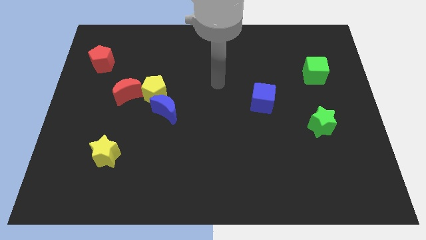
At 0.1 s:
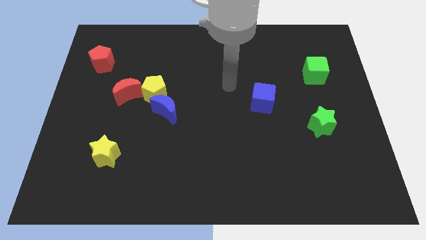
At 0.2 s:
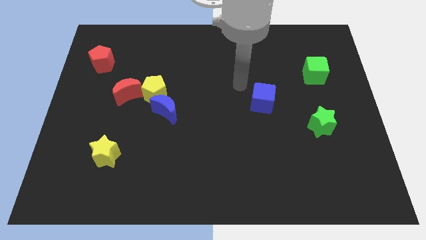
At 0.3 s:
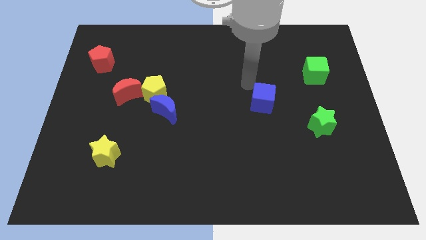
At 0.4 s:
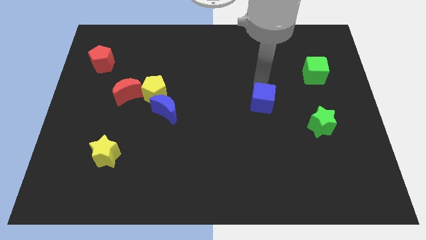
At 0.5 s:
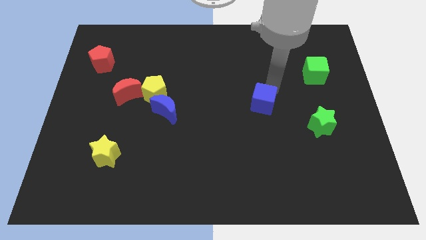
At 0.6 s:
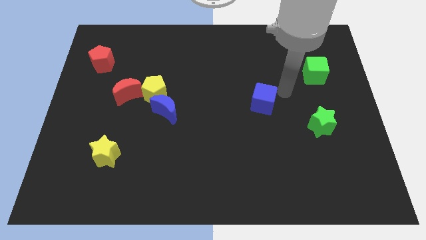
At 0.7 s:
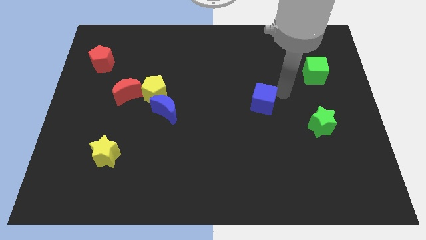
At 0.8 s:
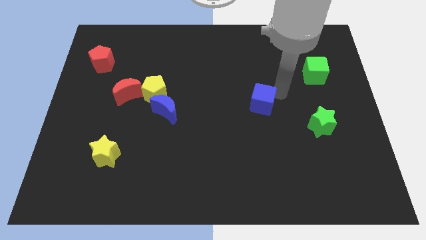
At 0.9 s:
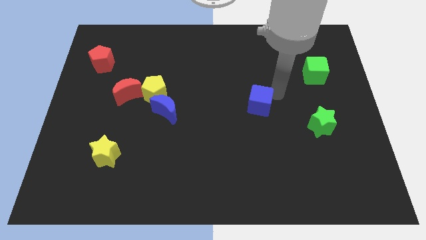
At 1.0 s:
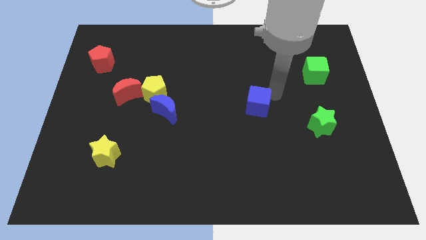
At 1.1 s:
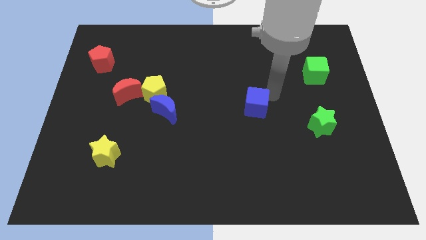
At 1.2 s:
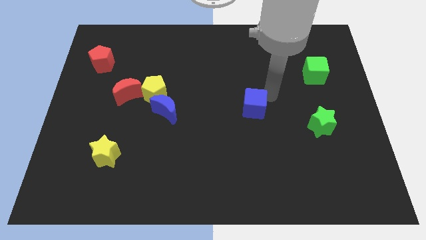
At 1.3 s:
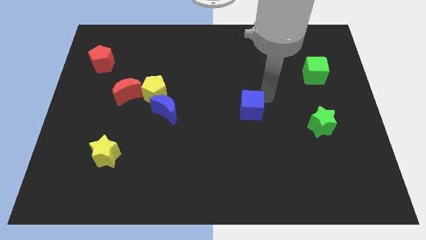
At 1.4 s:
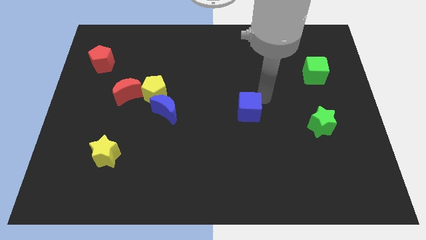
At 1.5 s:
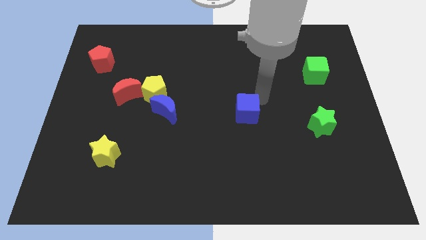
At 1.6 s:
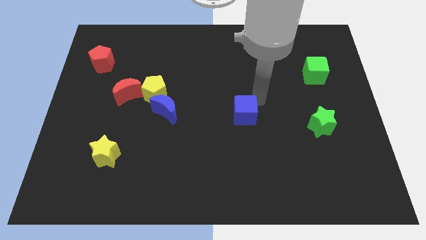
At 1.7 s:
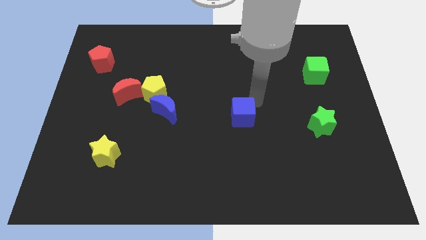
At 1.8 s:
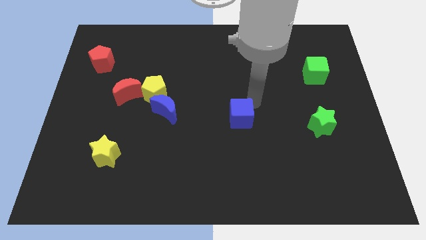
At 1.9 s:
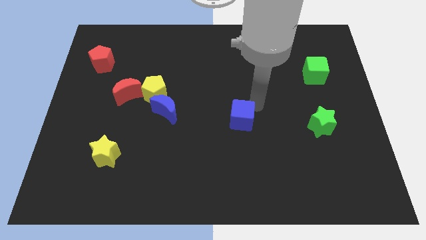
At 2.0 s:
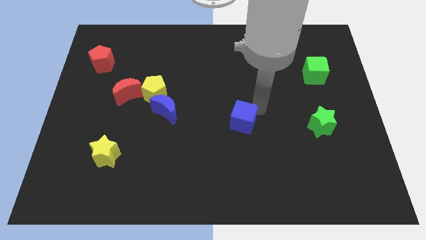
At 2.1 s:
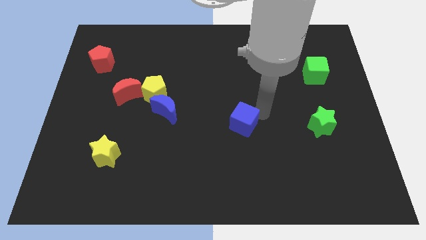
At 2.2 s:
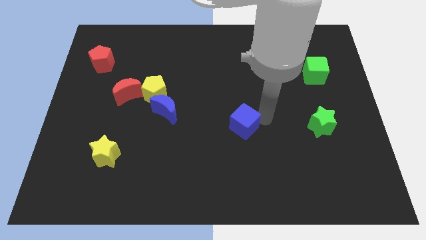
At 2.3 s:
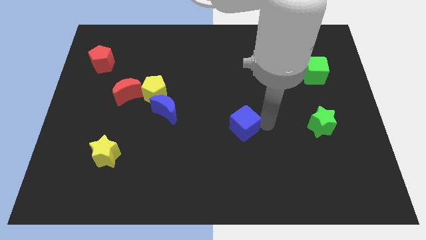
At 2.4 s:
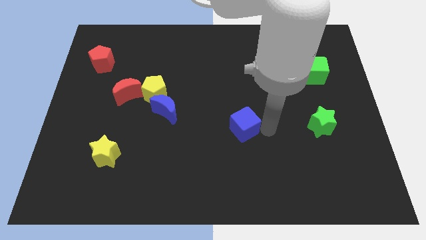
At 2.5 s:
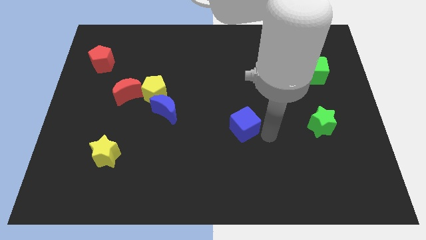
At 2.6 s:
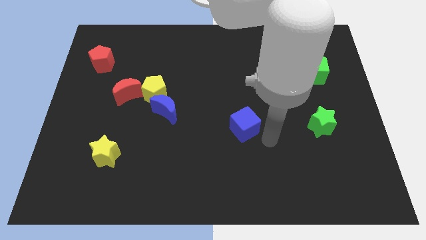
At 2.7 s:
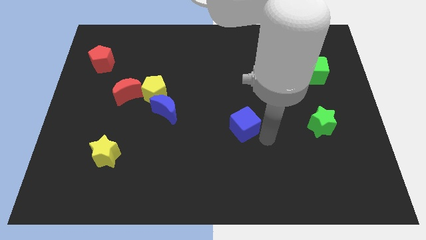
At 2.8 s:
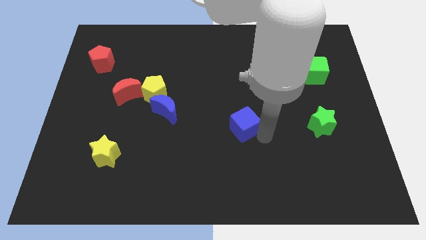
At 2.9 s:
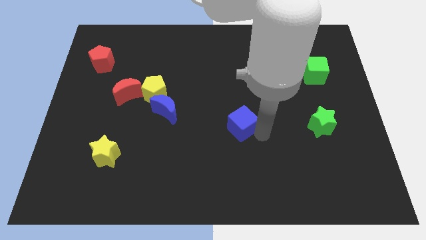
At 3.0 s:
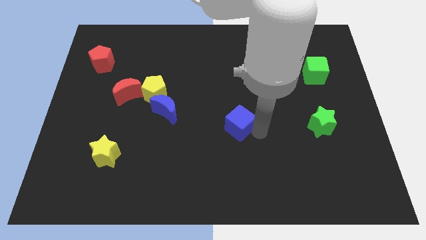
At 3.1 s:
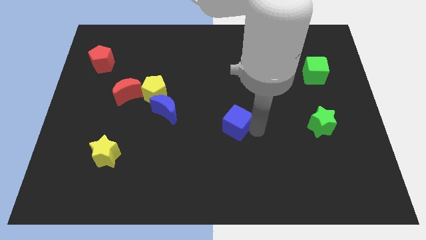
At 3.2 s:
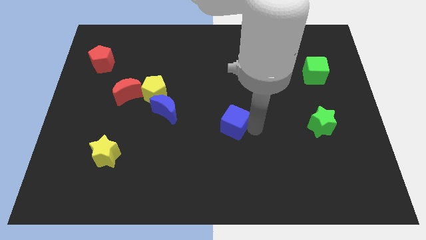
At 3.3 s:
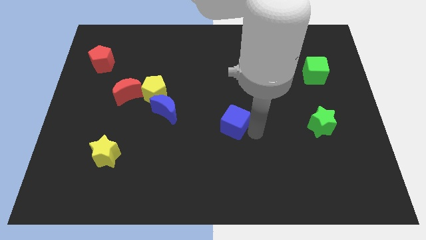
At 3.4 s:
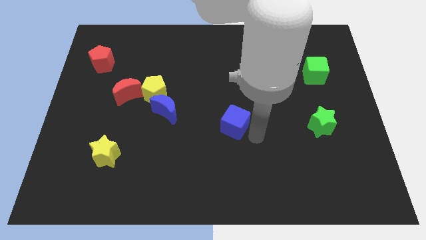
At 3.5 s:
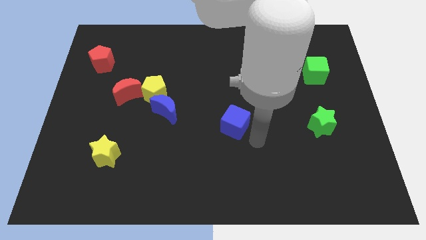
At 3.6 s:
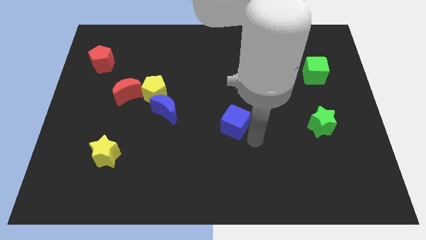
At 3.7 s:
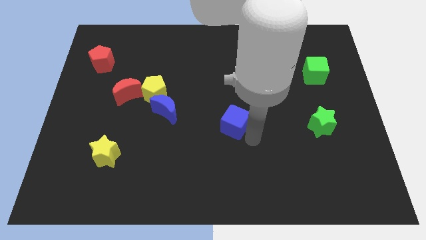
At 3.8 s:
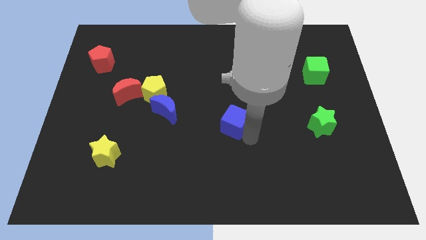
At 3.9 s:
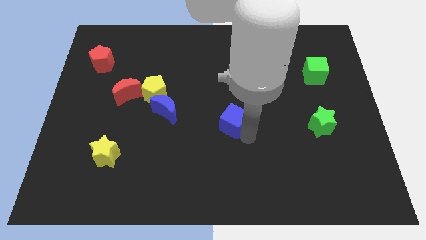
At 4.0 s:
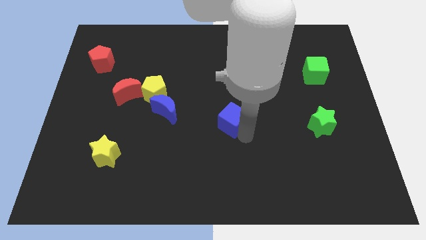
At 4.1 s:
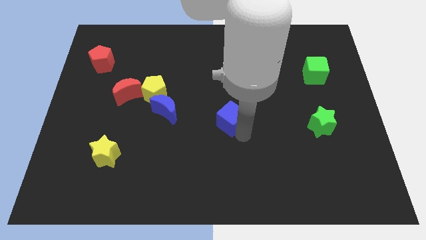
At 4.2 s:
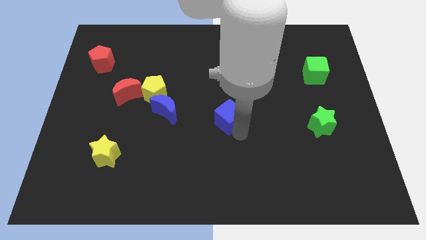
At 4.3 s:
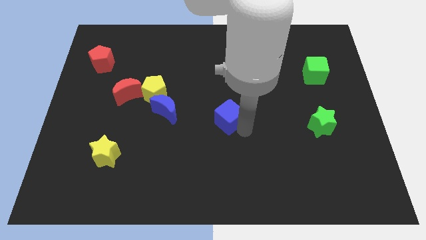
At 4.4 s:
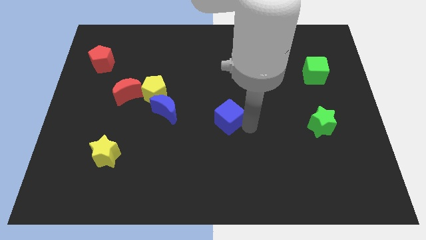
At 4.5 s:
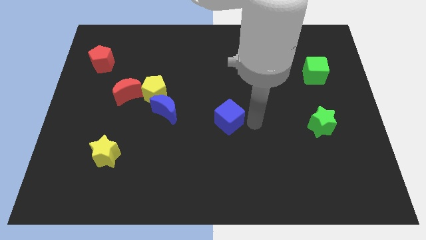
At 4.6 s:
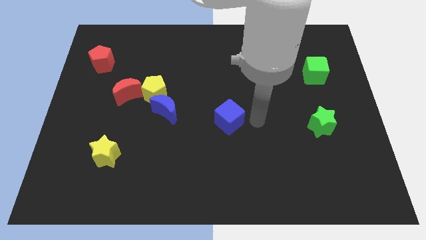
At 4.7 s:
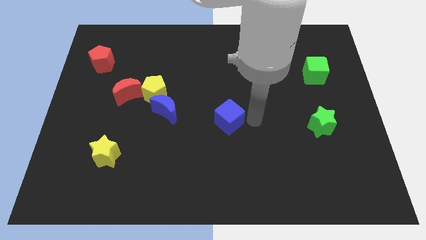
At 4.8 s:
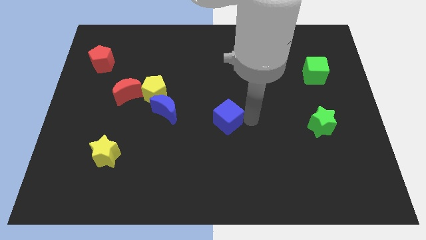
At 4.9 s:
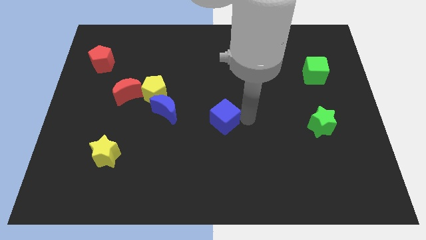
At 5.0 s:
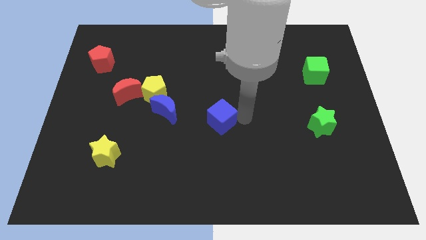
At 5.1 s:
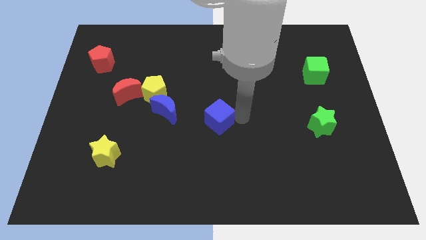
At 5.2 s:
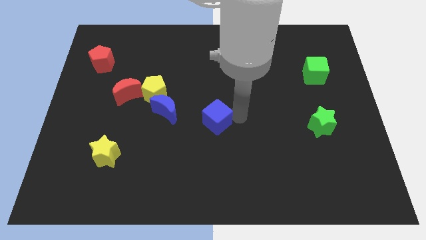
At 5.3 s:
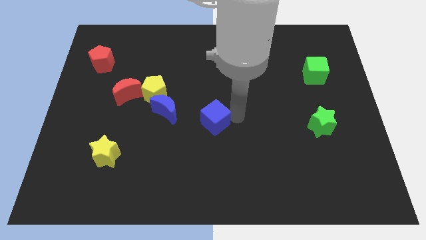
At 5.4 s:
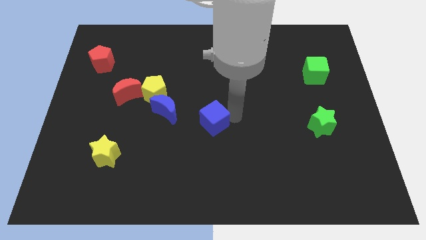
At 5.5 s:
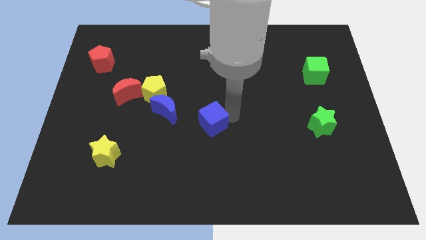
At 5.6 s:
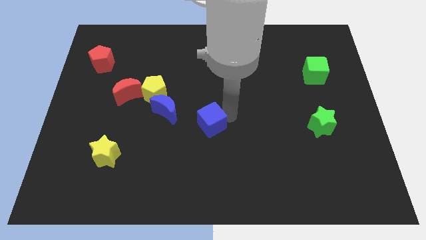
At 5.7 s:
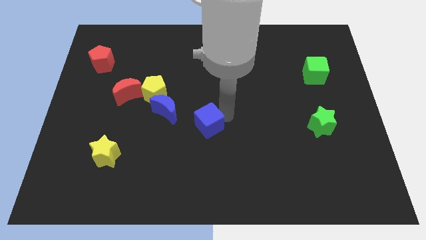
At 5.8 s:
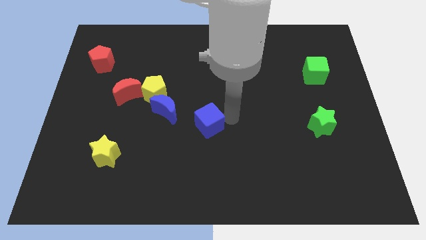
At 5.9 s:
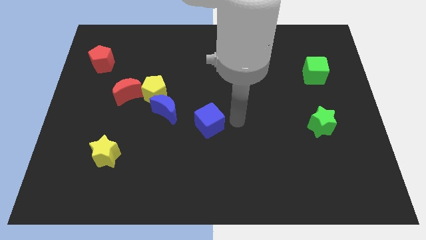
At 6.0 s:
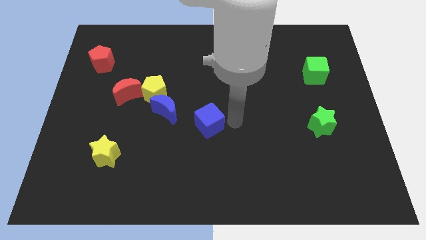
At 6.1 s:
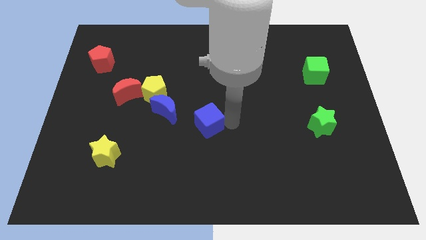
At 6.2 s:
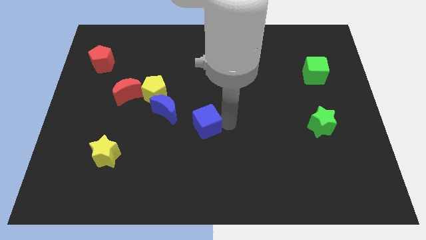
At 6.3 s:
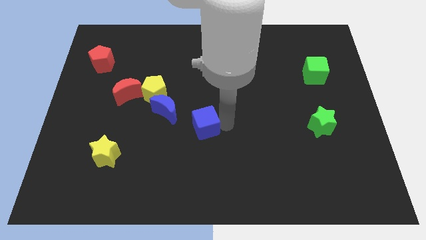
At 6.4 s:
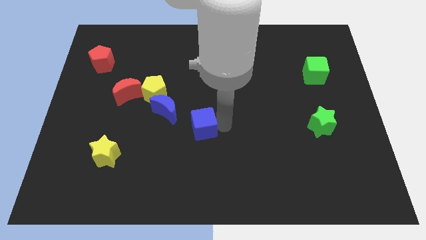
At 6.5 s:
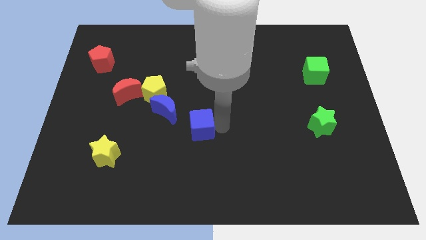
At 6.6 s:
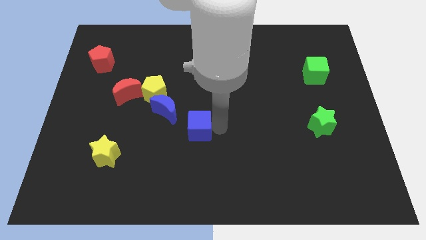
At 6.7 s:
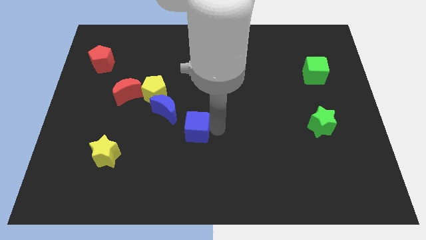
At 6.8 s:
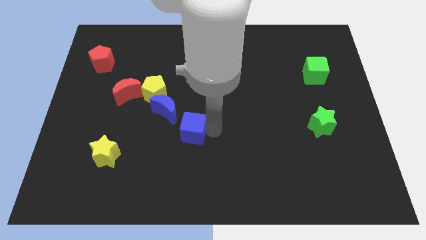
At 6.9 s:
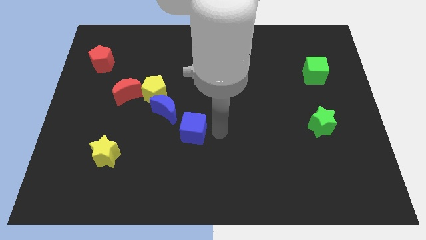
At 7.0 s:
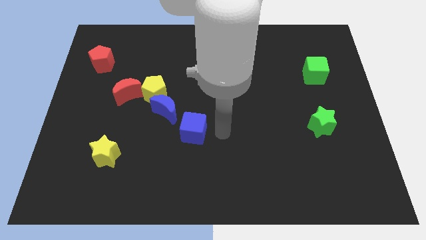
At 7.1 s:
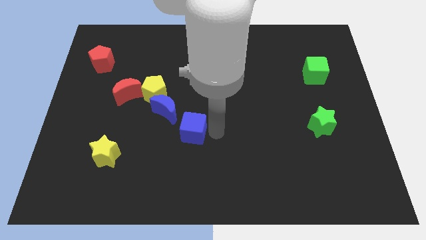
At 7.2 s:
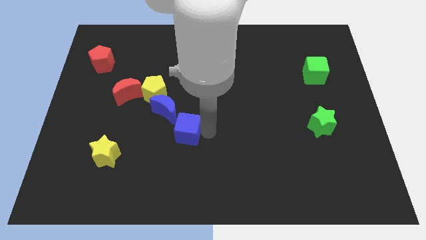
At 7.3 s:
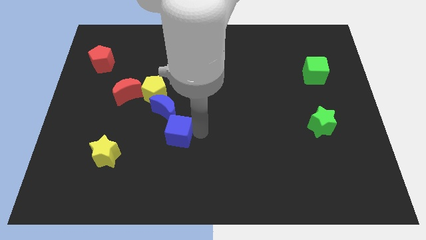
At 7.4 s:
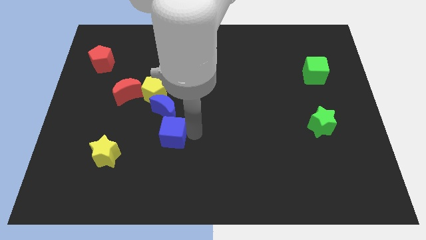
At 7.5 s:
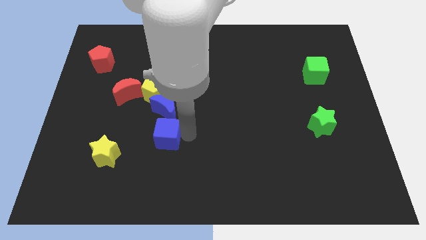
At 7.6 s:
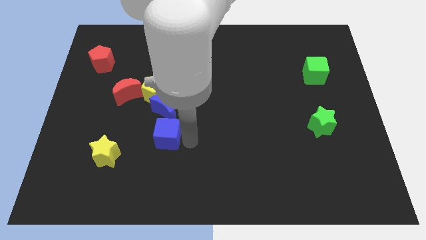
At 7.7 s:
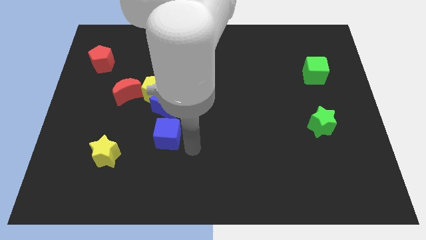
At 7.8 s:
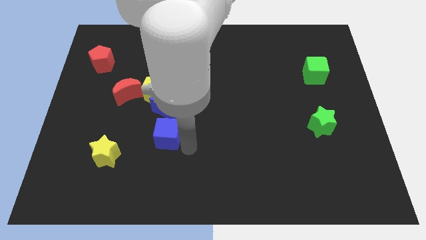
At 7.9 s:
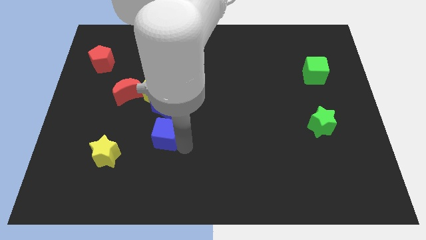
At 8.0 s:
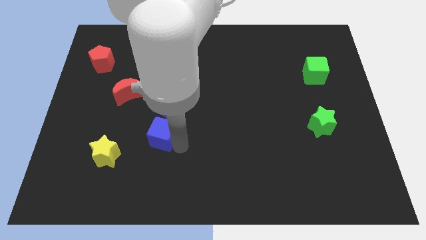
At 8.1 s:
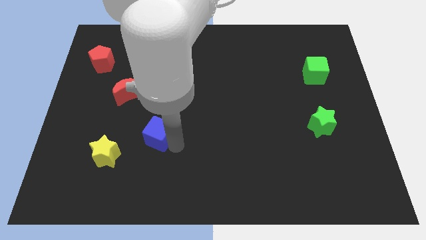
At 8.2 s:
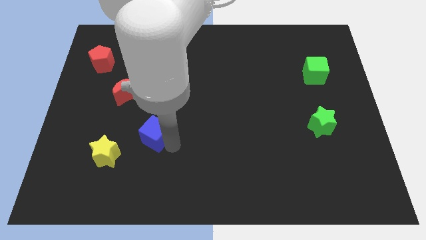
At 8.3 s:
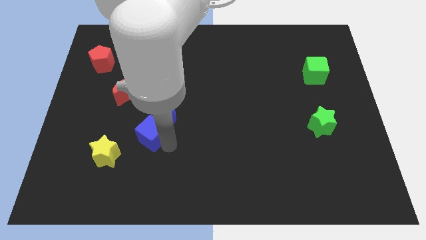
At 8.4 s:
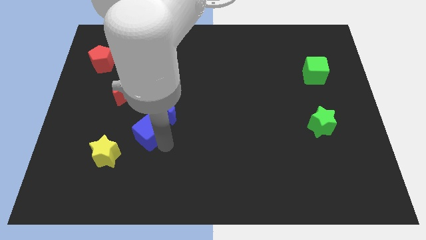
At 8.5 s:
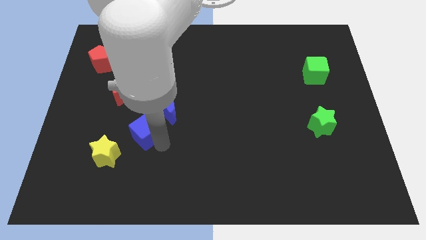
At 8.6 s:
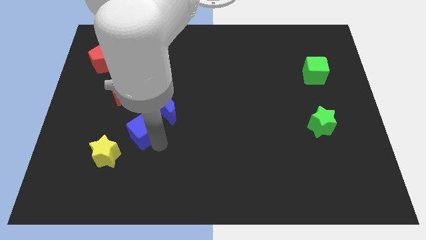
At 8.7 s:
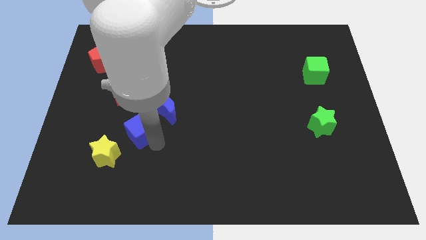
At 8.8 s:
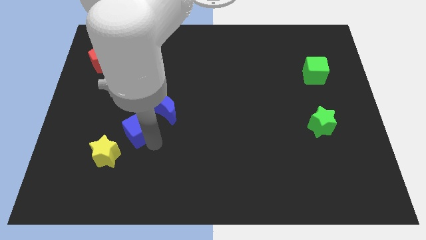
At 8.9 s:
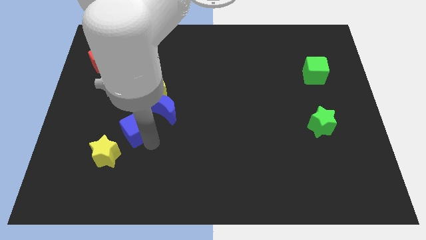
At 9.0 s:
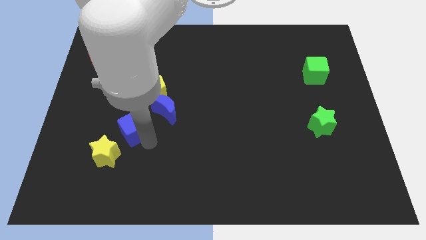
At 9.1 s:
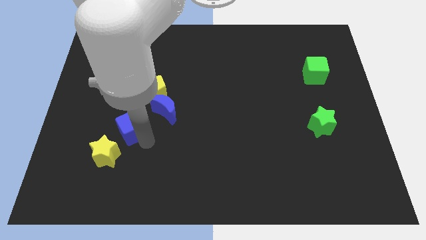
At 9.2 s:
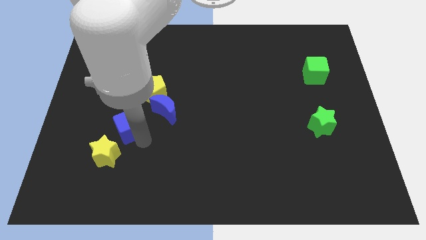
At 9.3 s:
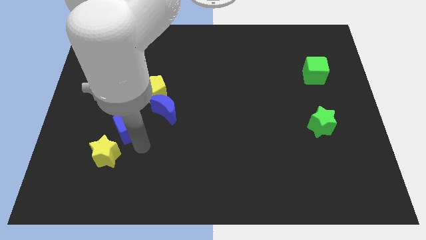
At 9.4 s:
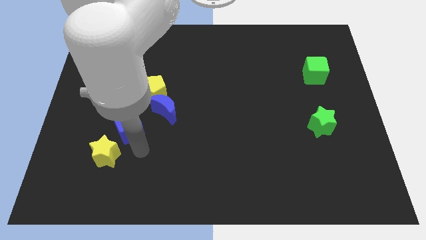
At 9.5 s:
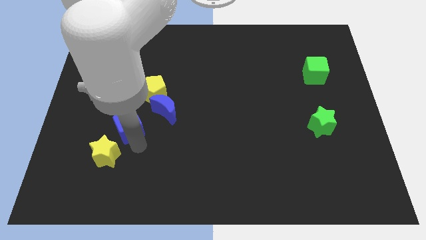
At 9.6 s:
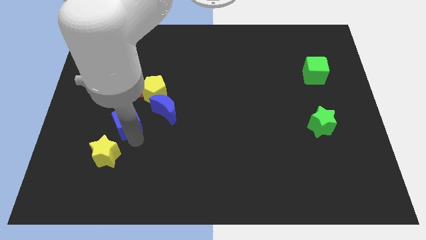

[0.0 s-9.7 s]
push the blue cube to the left side of the blue moon
